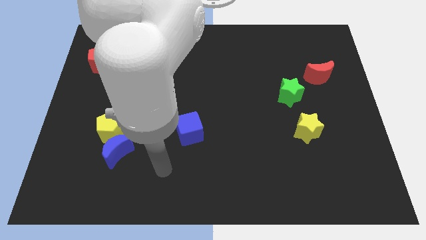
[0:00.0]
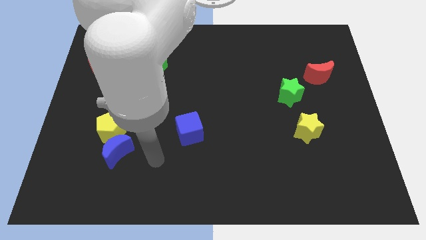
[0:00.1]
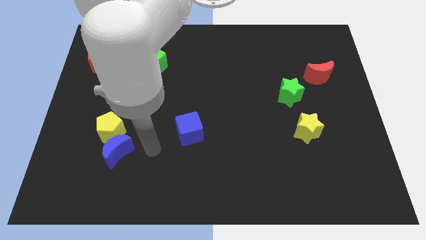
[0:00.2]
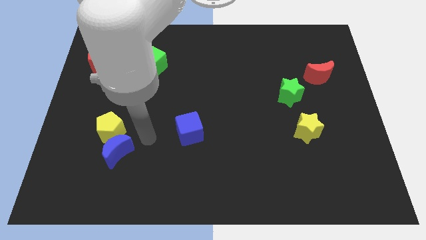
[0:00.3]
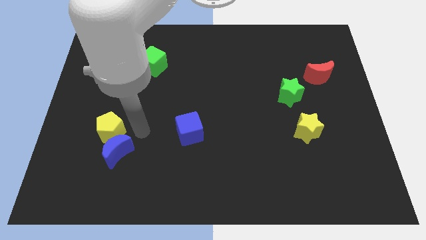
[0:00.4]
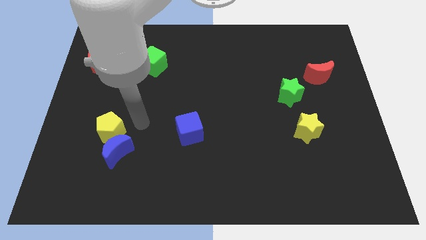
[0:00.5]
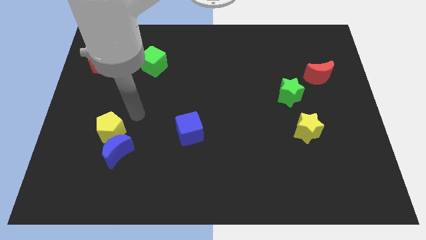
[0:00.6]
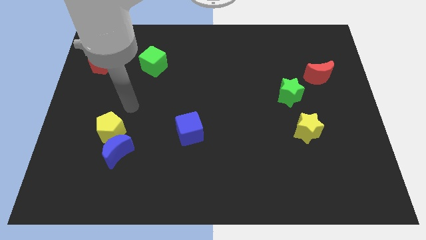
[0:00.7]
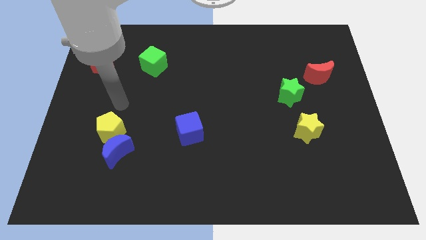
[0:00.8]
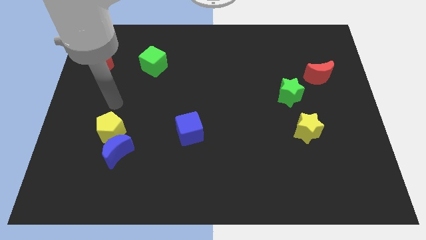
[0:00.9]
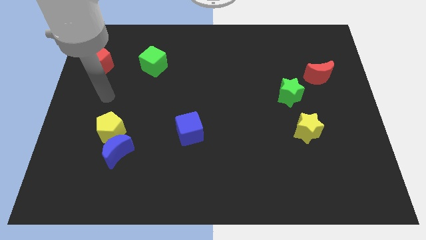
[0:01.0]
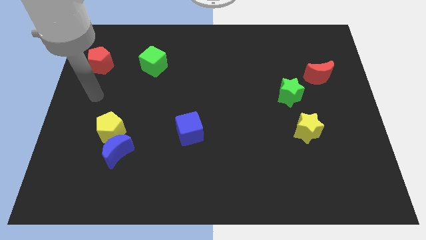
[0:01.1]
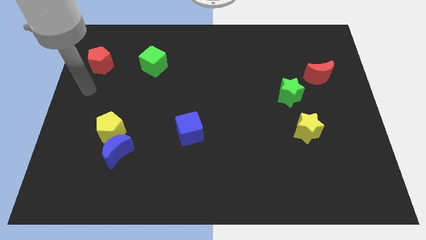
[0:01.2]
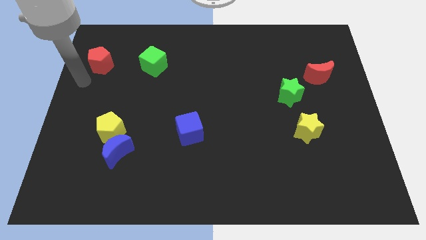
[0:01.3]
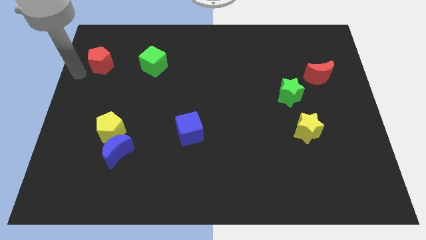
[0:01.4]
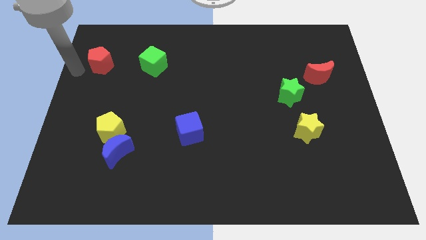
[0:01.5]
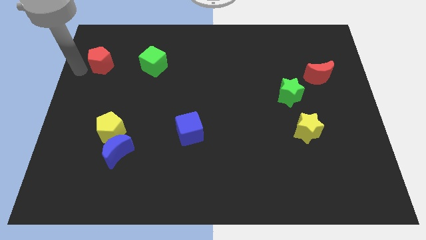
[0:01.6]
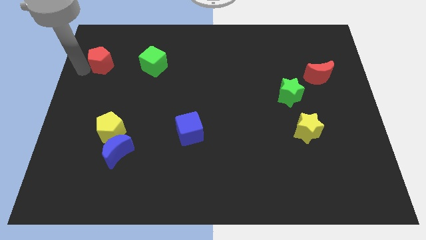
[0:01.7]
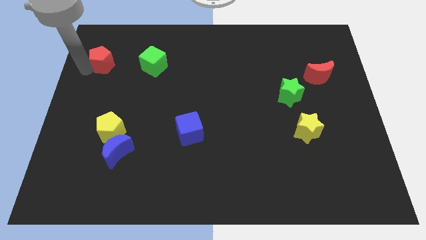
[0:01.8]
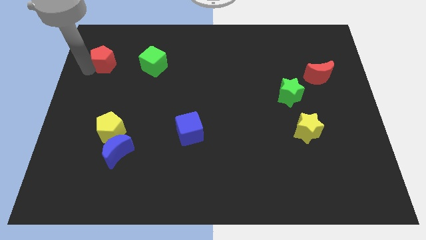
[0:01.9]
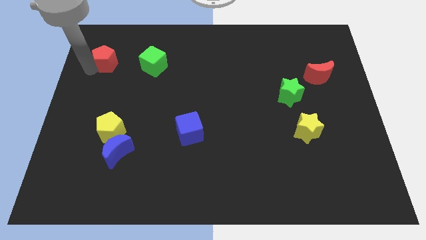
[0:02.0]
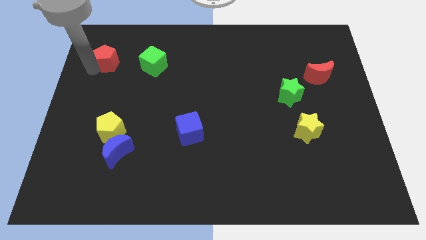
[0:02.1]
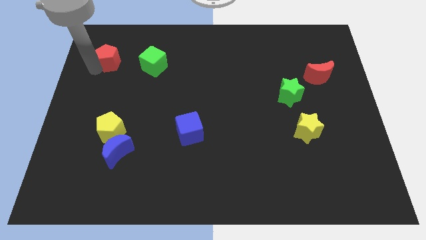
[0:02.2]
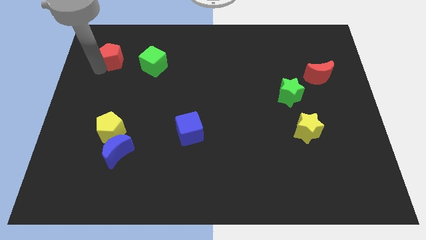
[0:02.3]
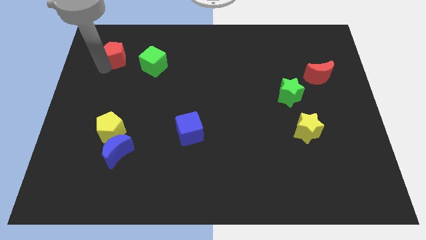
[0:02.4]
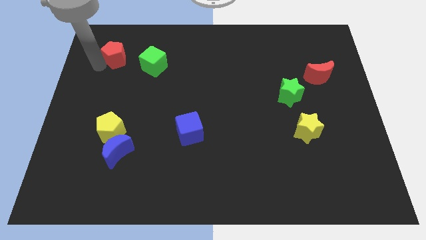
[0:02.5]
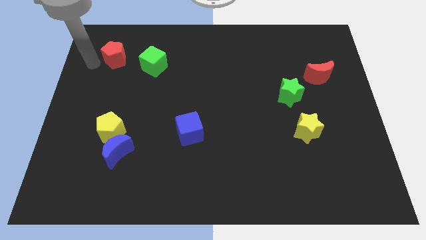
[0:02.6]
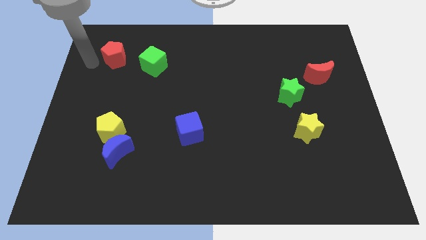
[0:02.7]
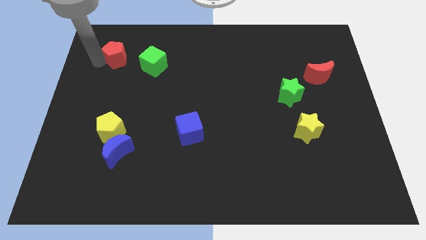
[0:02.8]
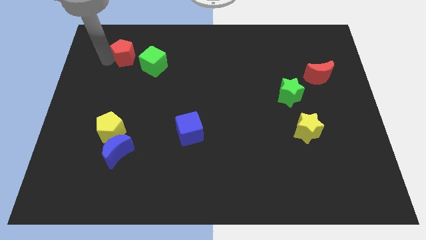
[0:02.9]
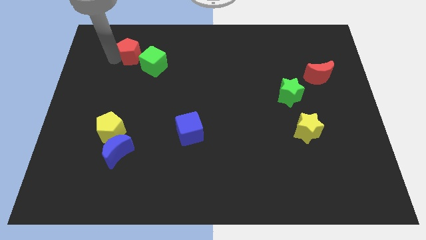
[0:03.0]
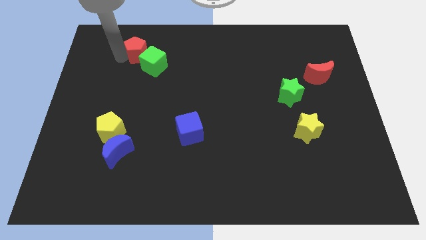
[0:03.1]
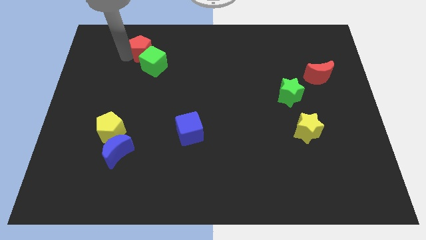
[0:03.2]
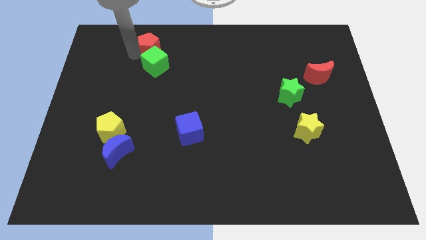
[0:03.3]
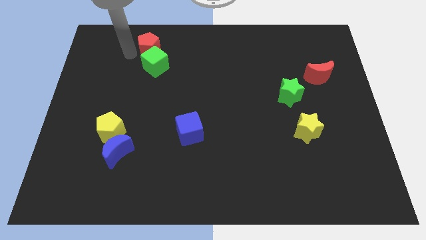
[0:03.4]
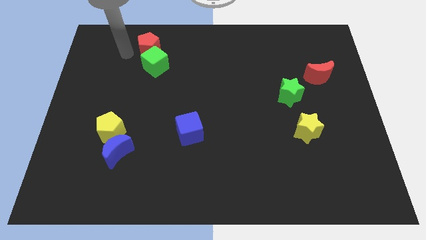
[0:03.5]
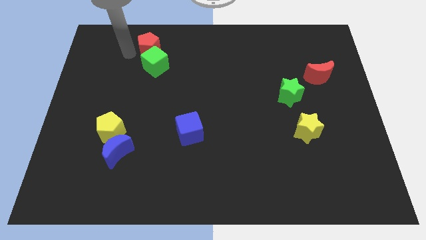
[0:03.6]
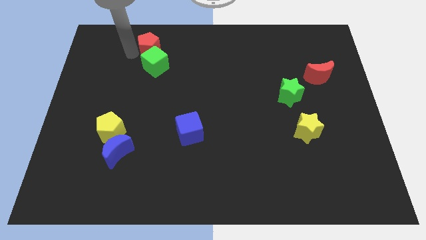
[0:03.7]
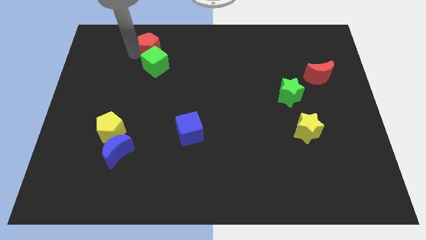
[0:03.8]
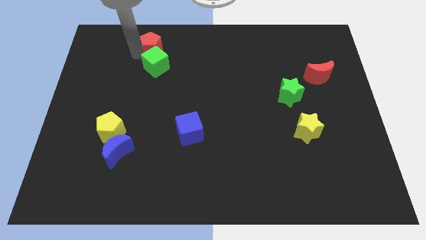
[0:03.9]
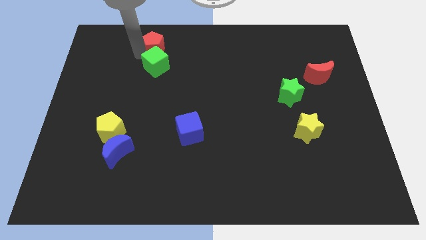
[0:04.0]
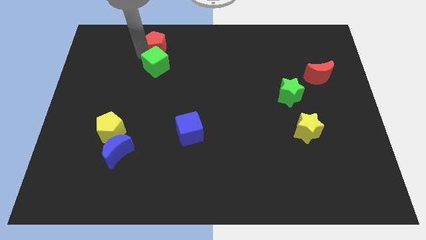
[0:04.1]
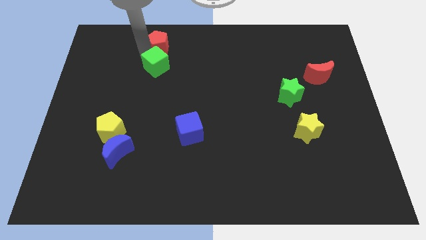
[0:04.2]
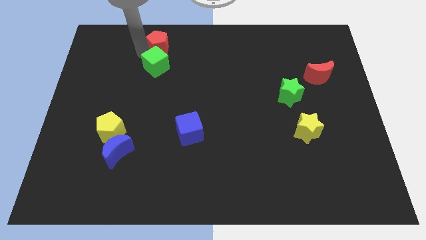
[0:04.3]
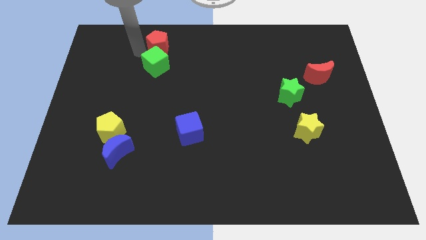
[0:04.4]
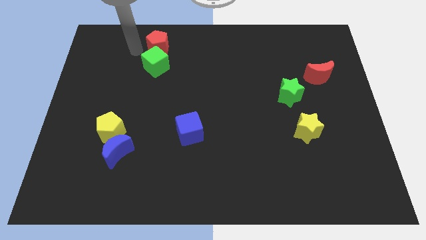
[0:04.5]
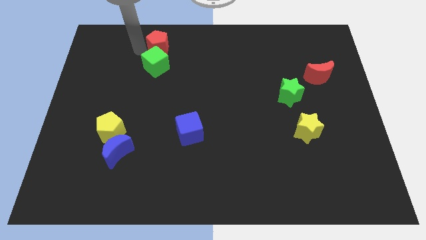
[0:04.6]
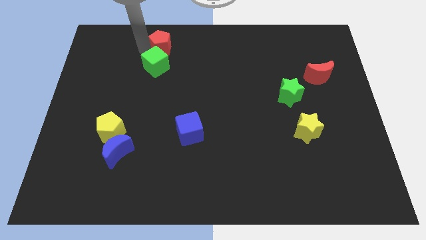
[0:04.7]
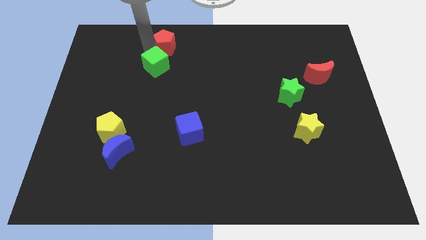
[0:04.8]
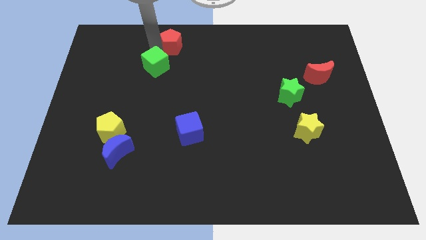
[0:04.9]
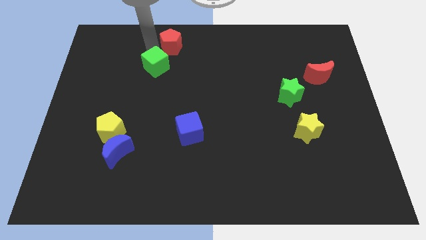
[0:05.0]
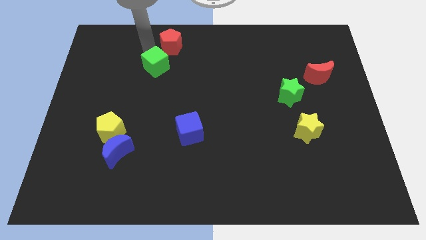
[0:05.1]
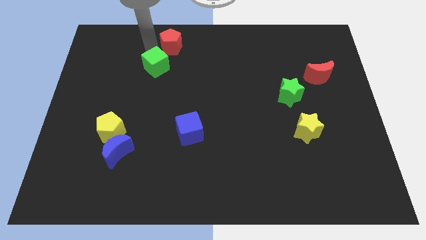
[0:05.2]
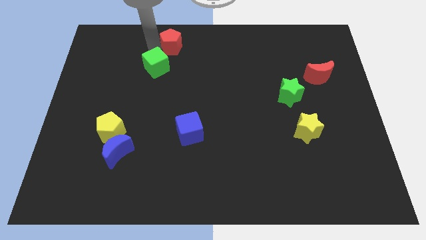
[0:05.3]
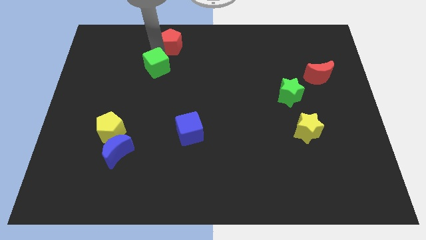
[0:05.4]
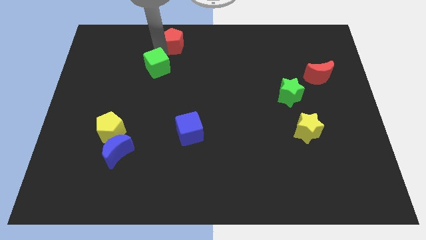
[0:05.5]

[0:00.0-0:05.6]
put the red pentagon to the top side
